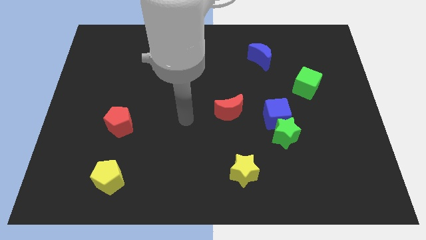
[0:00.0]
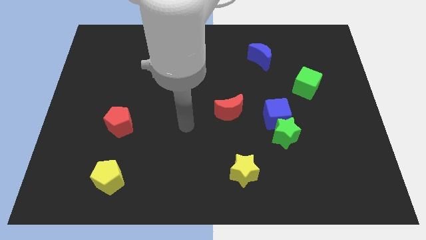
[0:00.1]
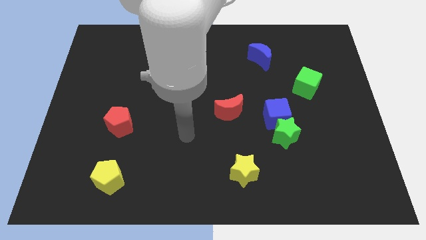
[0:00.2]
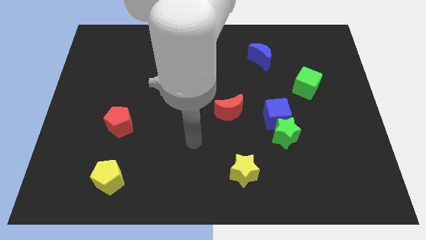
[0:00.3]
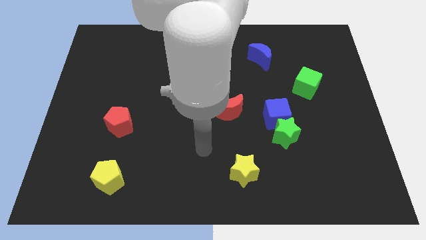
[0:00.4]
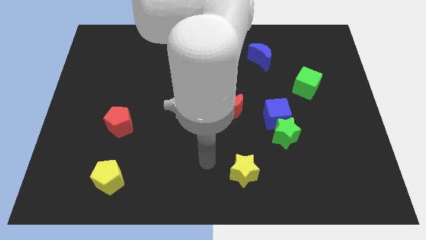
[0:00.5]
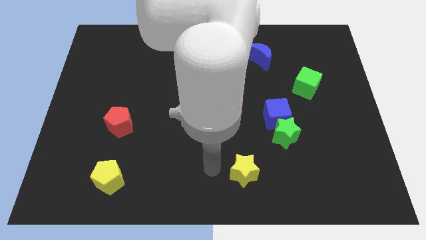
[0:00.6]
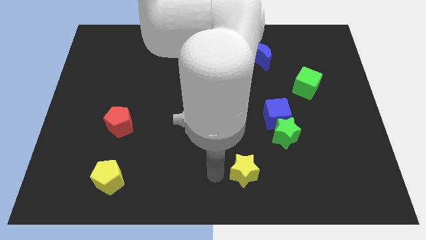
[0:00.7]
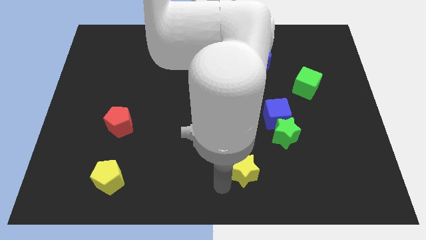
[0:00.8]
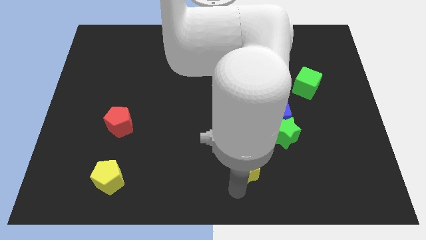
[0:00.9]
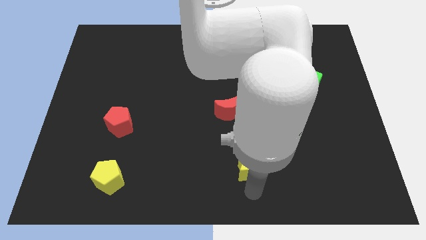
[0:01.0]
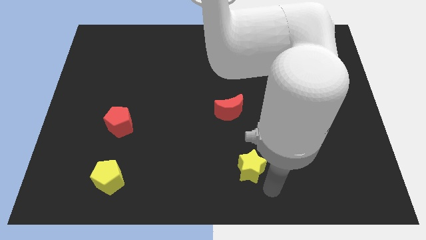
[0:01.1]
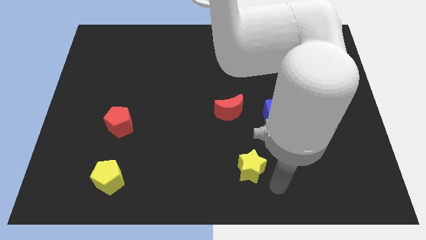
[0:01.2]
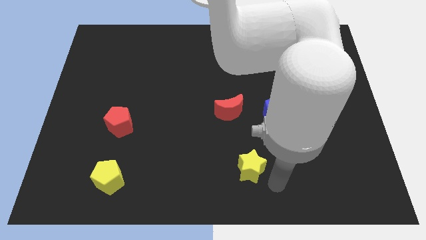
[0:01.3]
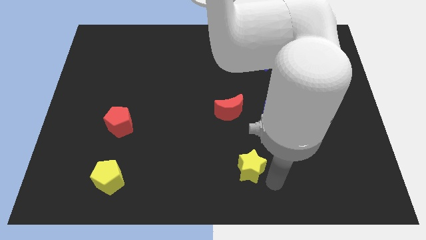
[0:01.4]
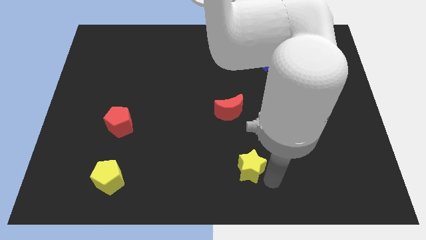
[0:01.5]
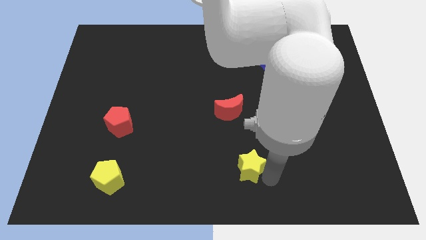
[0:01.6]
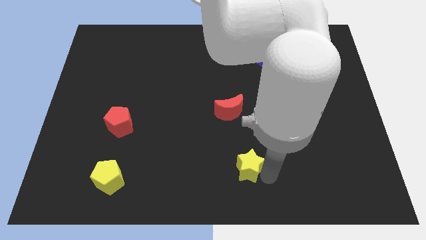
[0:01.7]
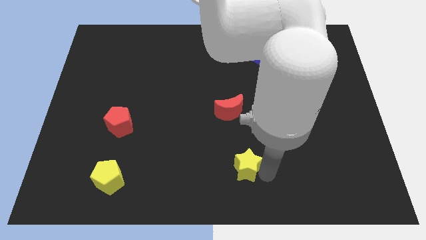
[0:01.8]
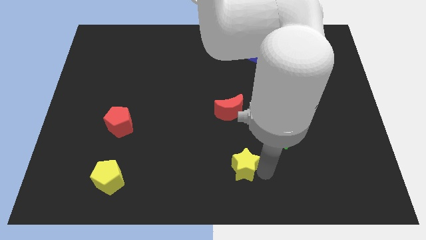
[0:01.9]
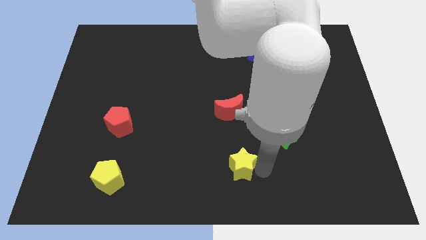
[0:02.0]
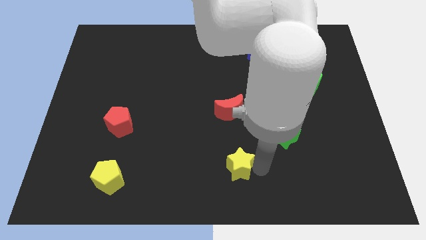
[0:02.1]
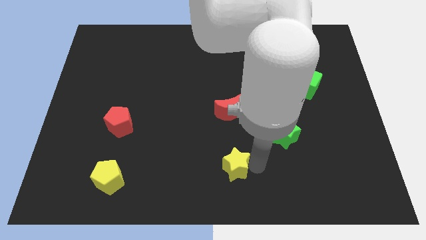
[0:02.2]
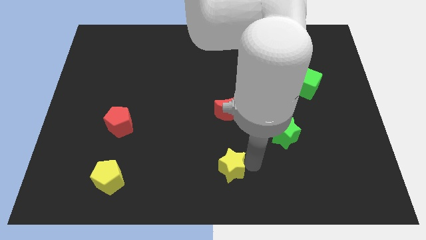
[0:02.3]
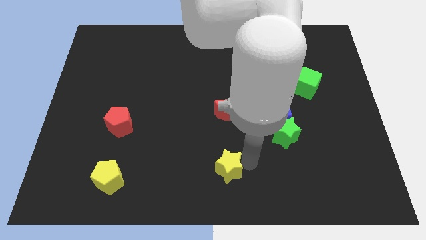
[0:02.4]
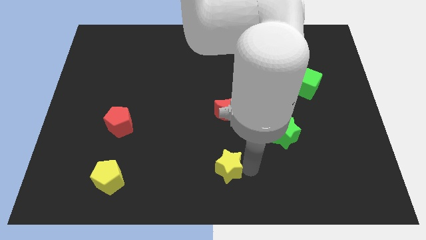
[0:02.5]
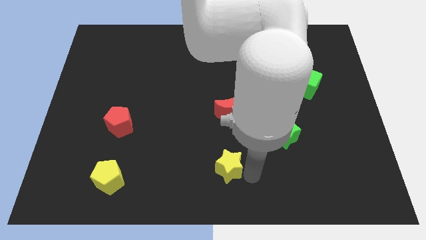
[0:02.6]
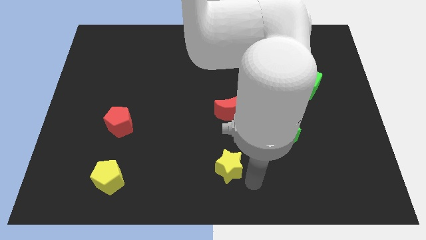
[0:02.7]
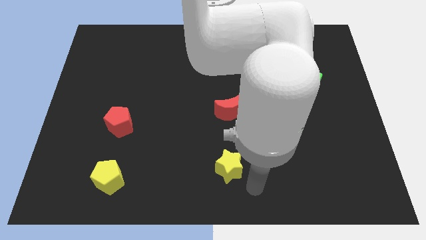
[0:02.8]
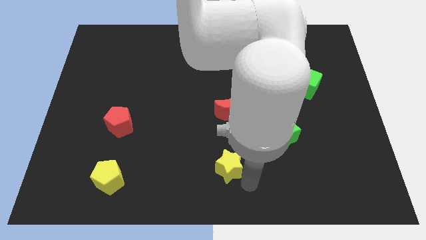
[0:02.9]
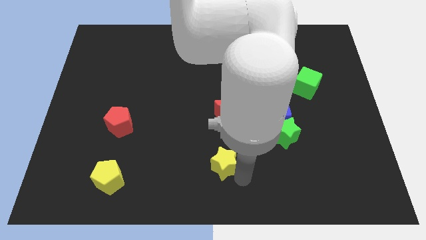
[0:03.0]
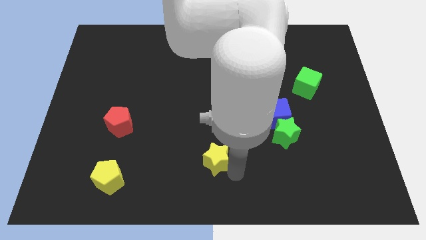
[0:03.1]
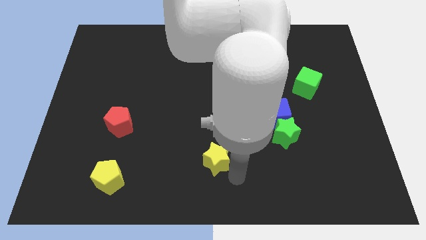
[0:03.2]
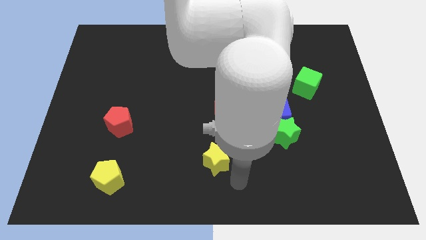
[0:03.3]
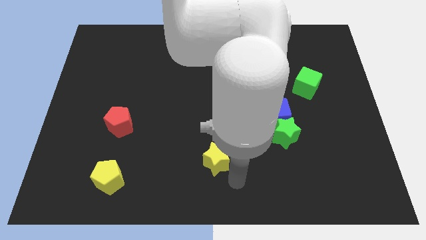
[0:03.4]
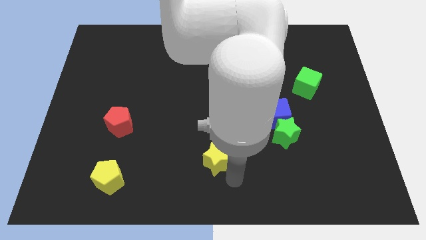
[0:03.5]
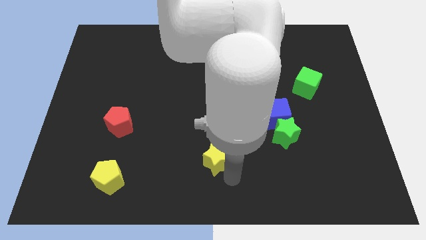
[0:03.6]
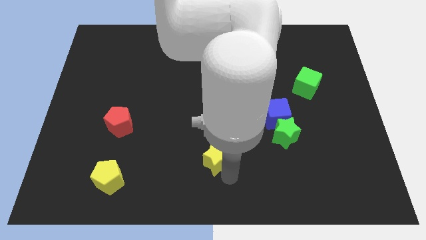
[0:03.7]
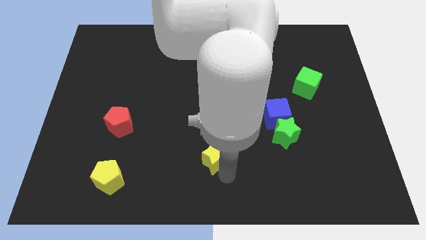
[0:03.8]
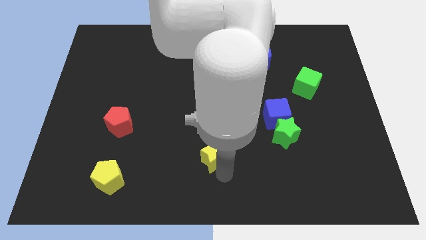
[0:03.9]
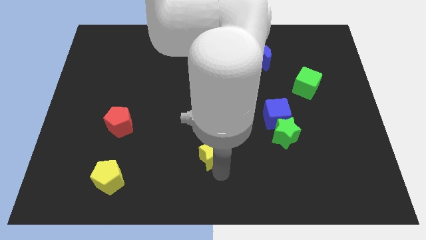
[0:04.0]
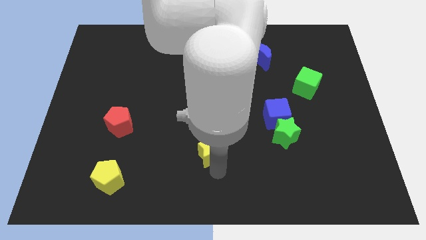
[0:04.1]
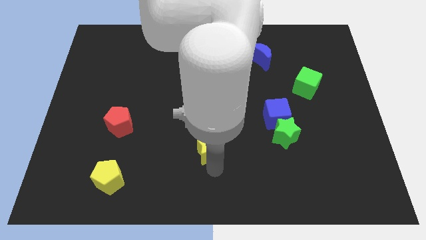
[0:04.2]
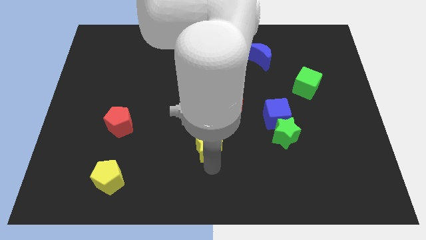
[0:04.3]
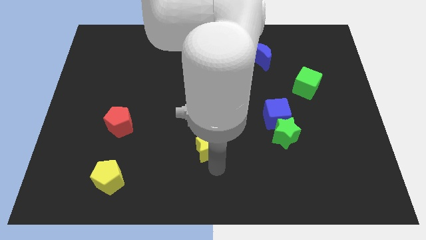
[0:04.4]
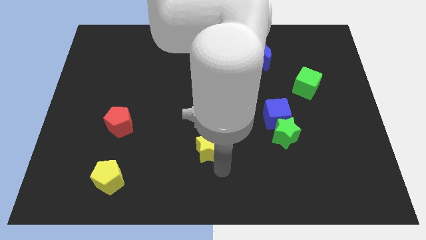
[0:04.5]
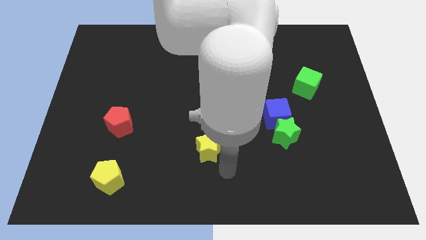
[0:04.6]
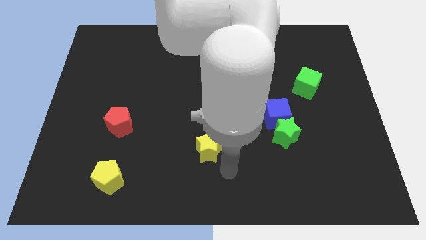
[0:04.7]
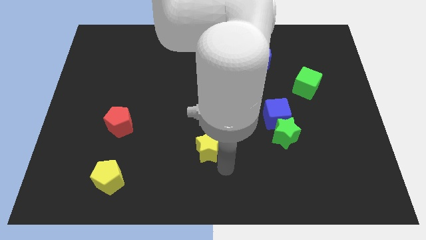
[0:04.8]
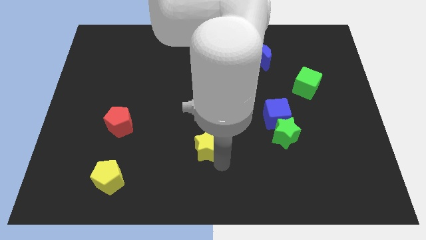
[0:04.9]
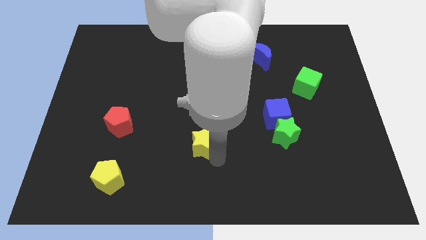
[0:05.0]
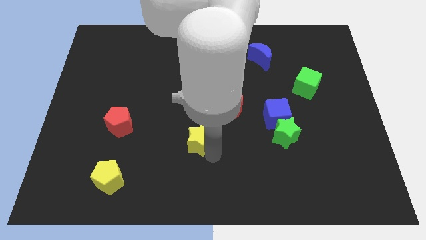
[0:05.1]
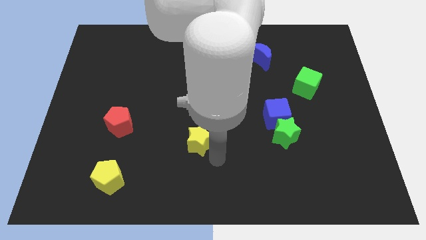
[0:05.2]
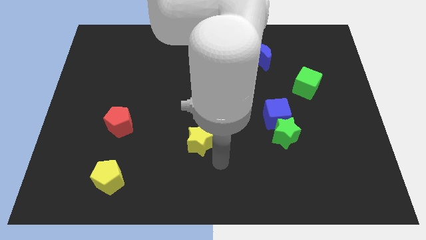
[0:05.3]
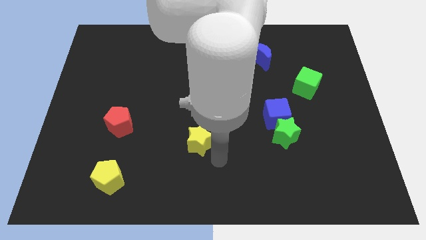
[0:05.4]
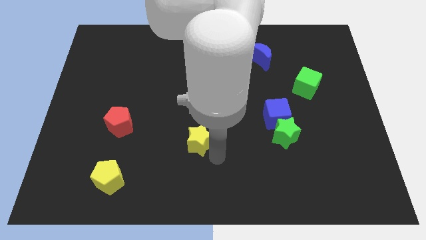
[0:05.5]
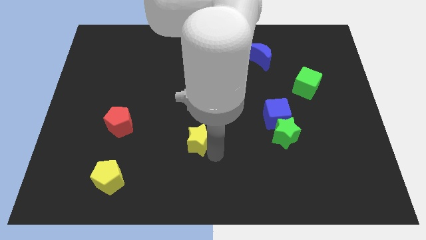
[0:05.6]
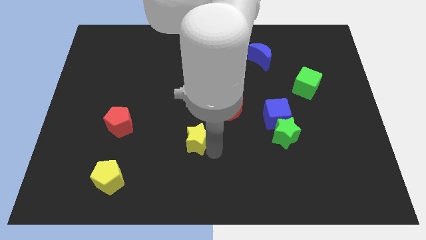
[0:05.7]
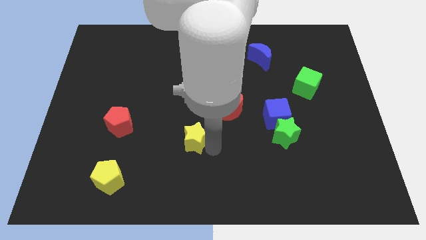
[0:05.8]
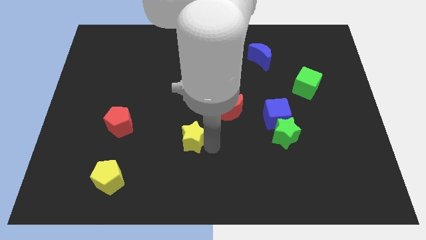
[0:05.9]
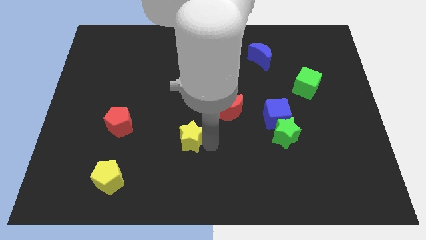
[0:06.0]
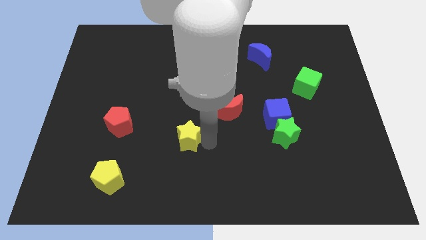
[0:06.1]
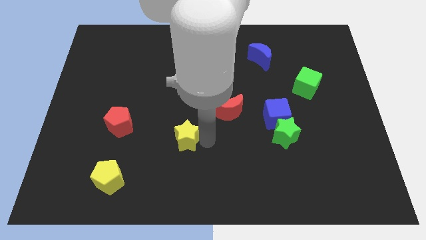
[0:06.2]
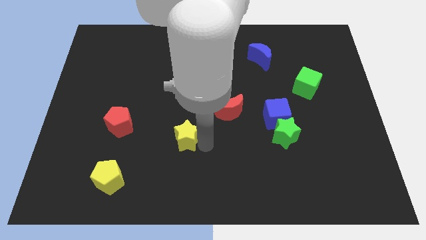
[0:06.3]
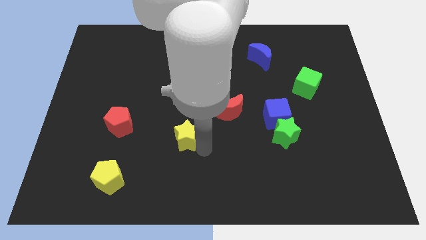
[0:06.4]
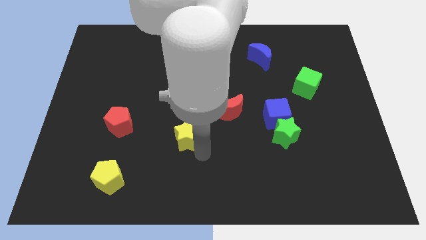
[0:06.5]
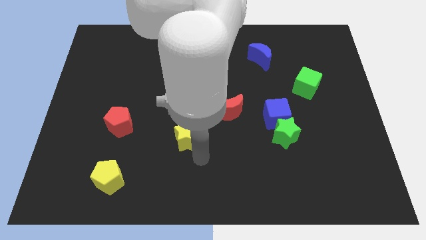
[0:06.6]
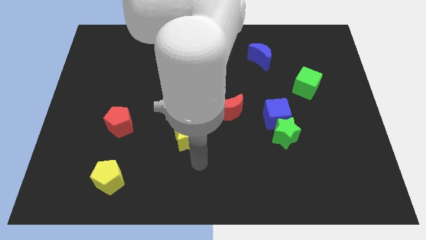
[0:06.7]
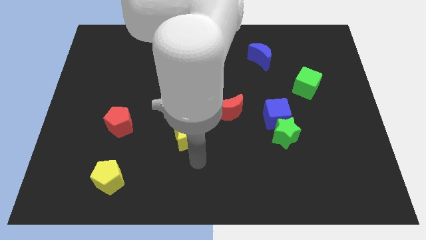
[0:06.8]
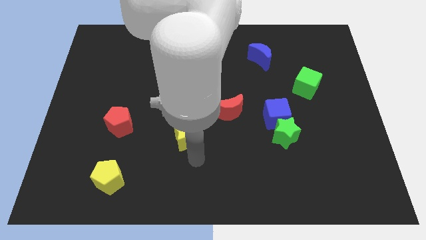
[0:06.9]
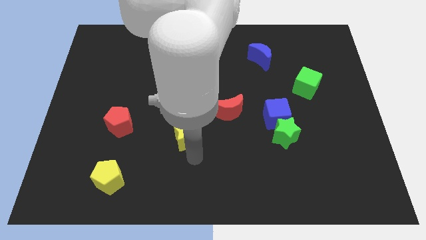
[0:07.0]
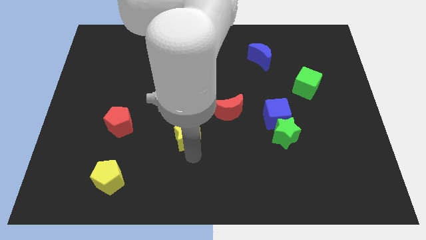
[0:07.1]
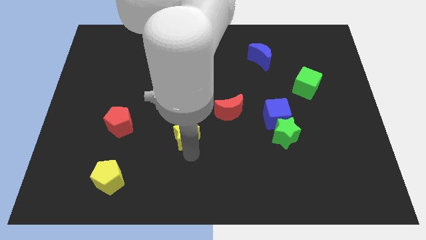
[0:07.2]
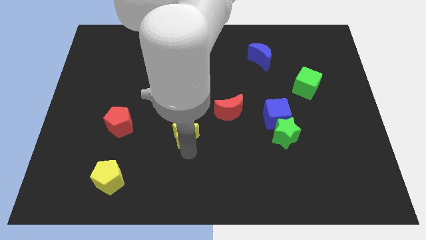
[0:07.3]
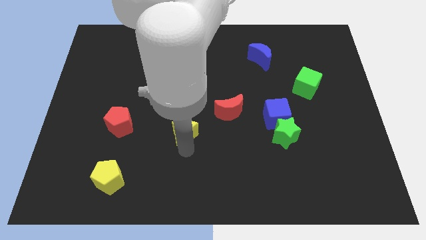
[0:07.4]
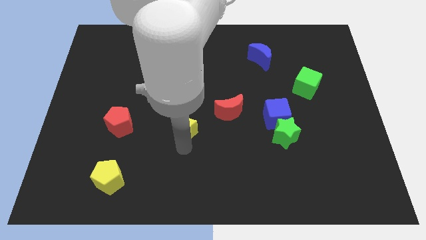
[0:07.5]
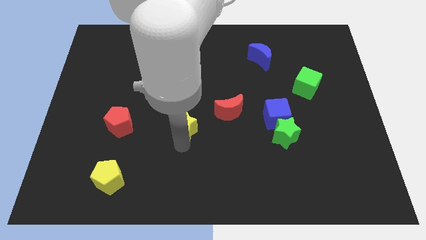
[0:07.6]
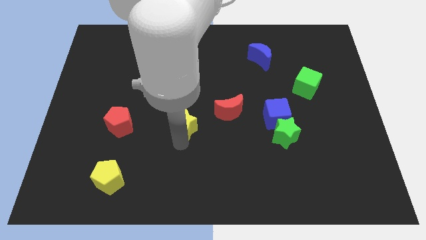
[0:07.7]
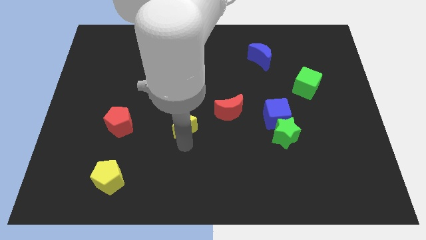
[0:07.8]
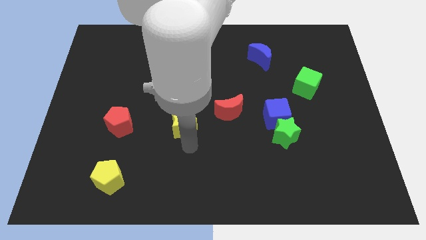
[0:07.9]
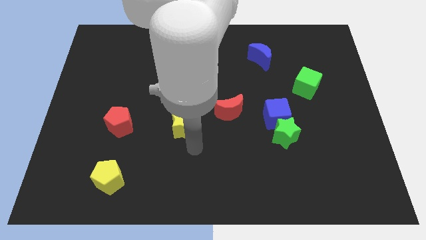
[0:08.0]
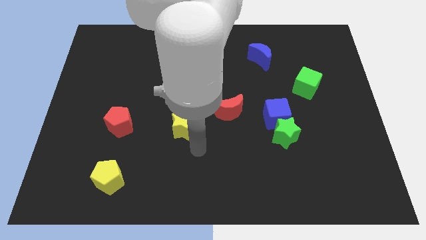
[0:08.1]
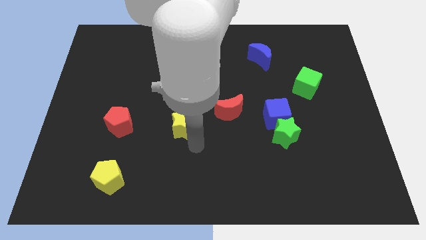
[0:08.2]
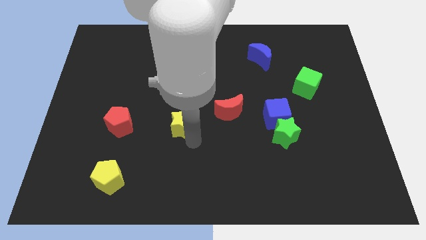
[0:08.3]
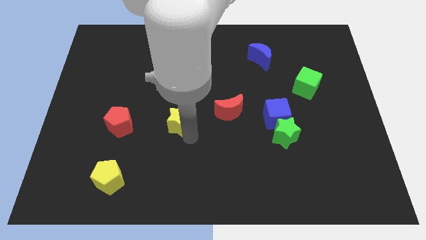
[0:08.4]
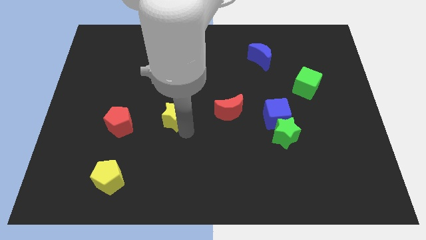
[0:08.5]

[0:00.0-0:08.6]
push the yellow star upwards and to the left diagonally
